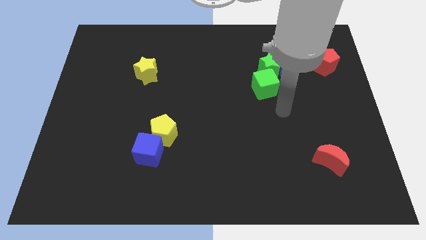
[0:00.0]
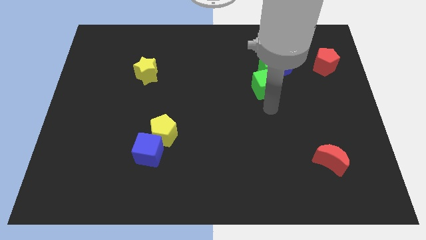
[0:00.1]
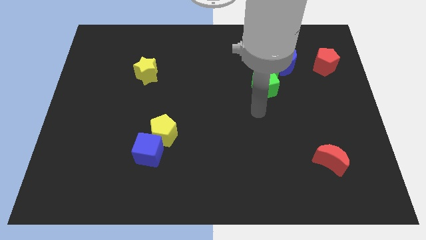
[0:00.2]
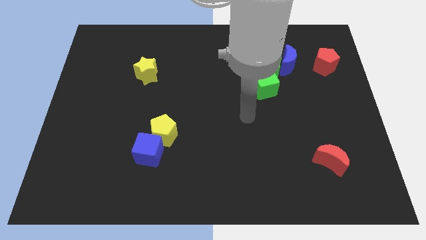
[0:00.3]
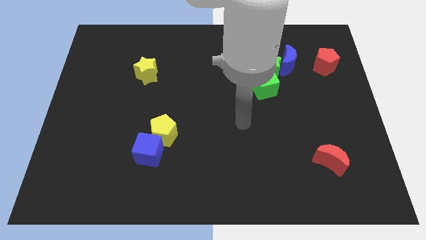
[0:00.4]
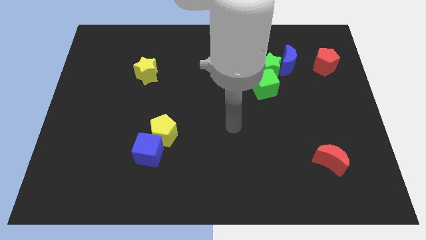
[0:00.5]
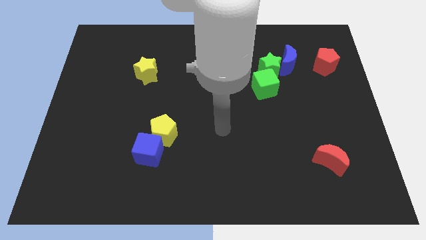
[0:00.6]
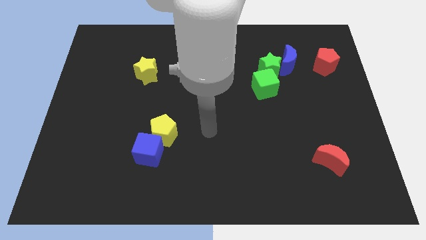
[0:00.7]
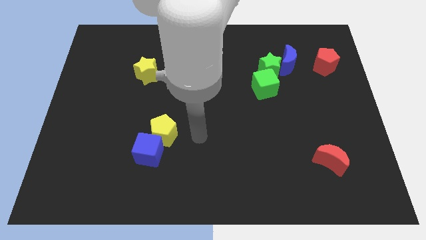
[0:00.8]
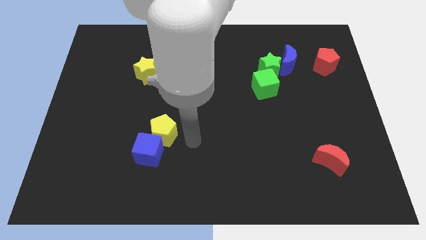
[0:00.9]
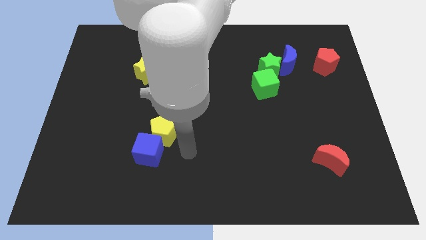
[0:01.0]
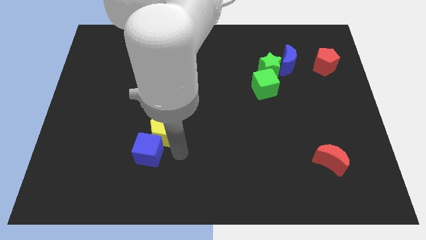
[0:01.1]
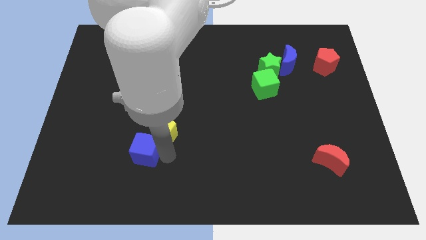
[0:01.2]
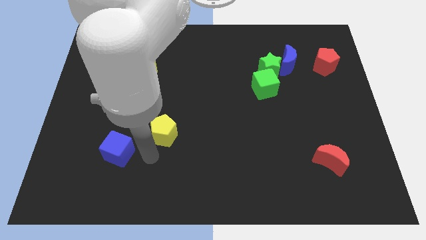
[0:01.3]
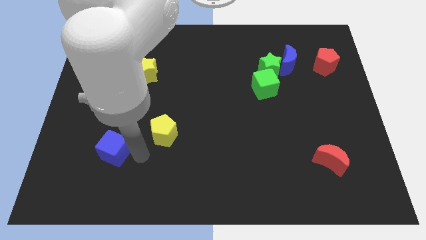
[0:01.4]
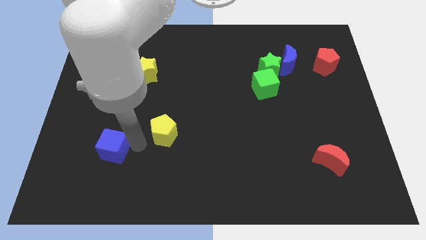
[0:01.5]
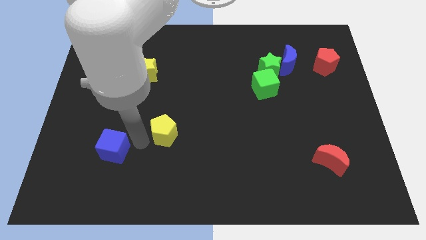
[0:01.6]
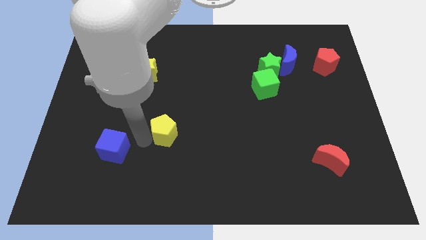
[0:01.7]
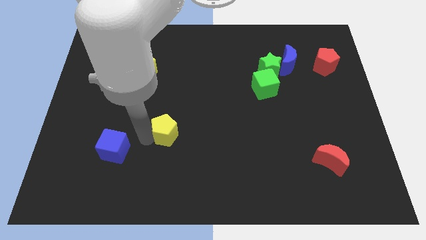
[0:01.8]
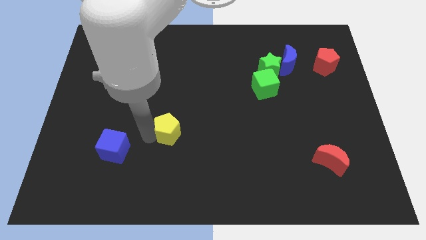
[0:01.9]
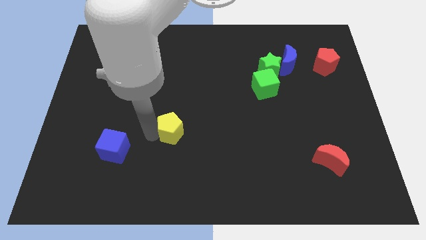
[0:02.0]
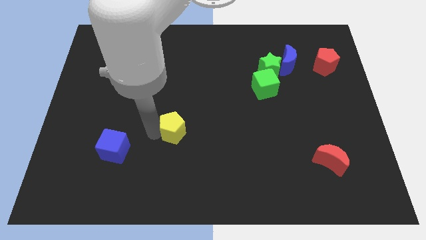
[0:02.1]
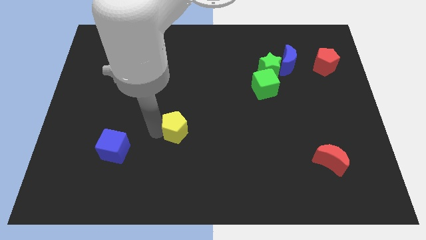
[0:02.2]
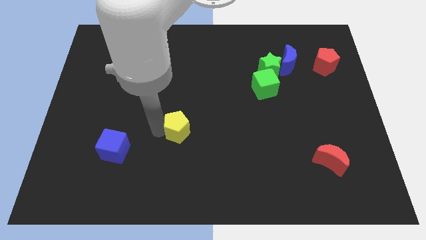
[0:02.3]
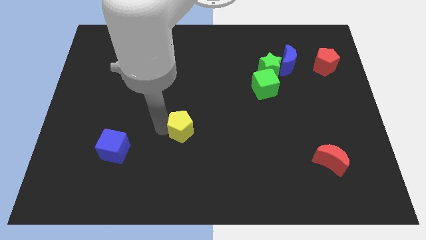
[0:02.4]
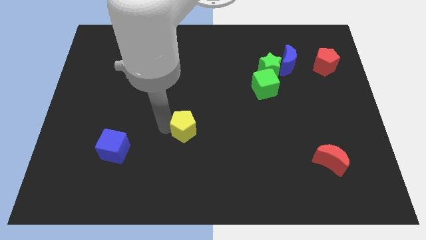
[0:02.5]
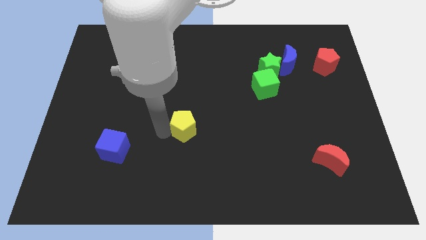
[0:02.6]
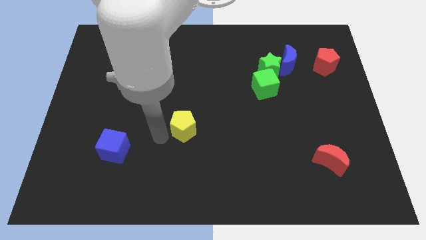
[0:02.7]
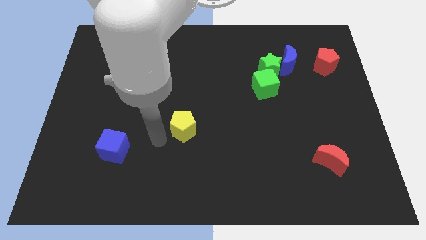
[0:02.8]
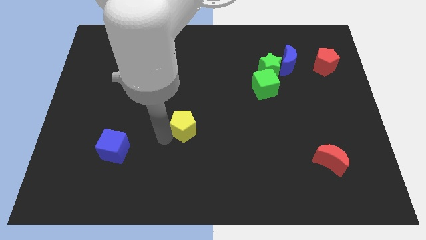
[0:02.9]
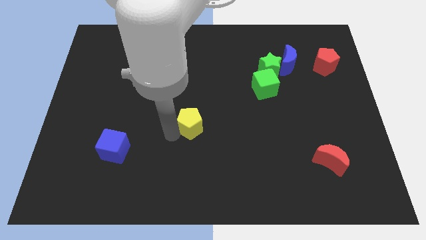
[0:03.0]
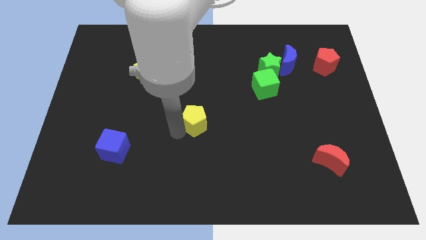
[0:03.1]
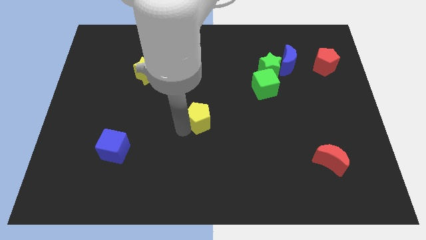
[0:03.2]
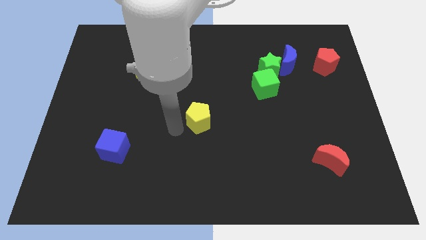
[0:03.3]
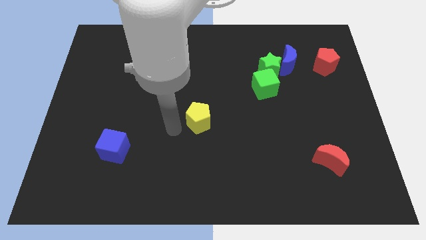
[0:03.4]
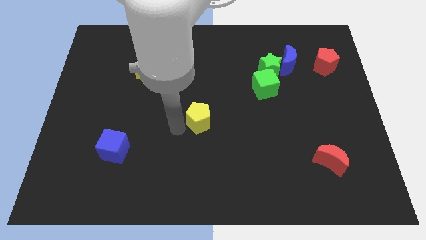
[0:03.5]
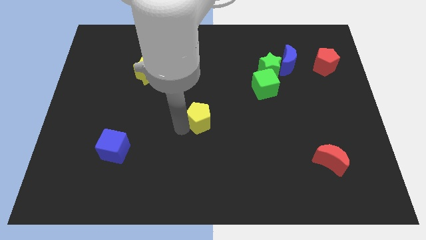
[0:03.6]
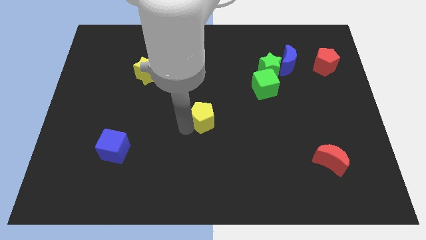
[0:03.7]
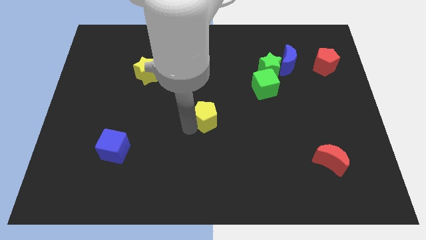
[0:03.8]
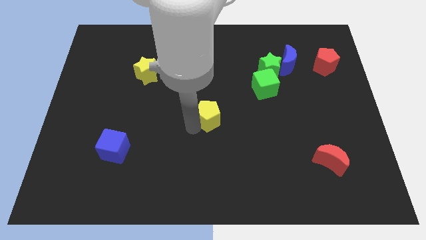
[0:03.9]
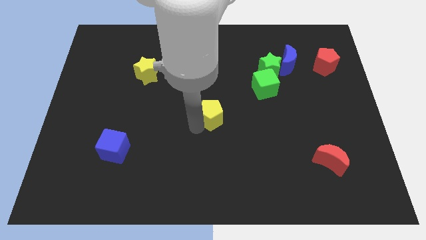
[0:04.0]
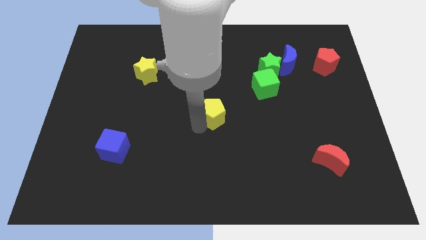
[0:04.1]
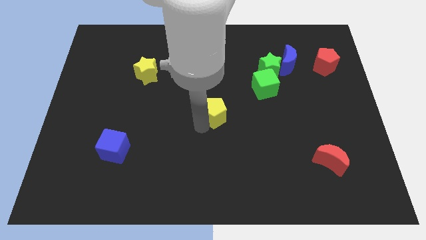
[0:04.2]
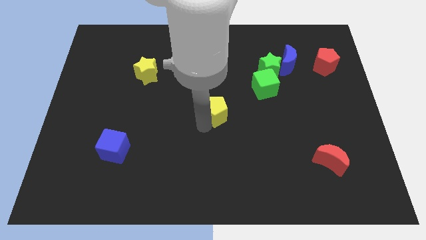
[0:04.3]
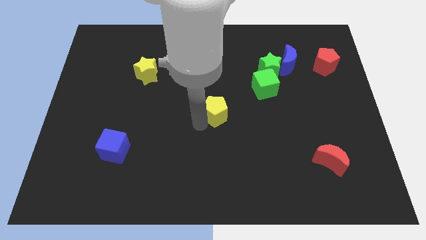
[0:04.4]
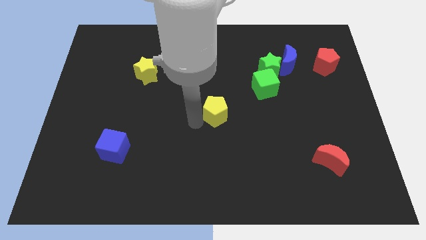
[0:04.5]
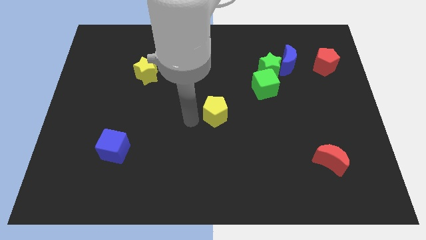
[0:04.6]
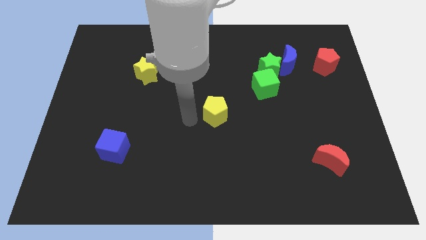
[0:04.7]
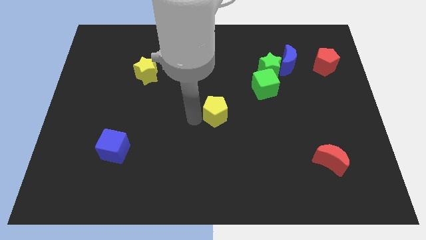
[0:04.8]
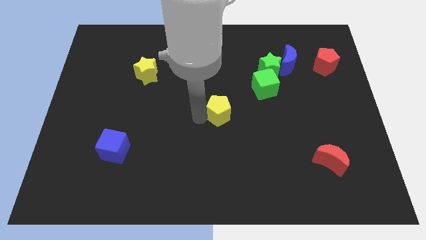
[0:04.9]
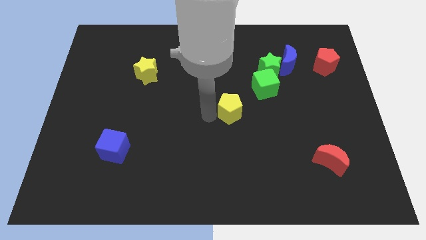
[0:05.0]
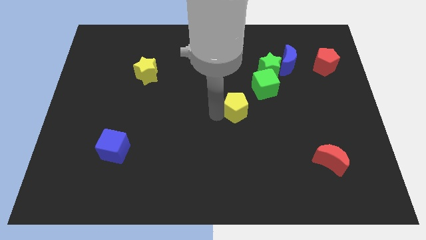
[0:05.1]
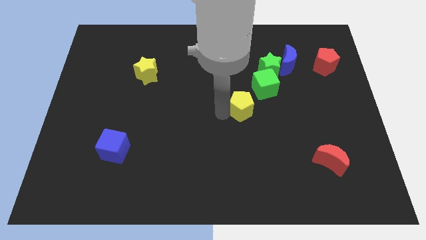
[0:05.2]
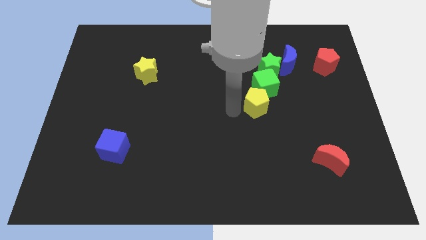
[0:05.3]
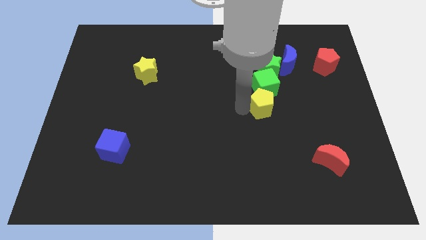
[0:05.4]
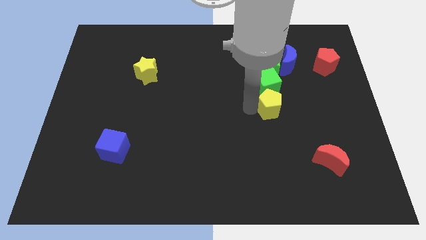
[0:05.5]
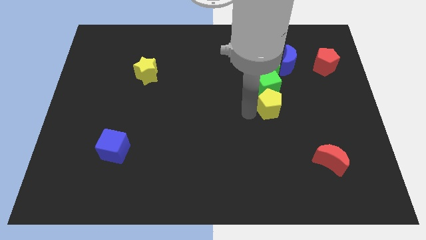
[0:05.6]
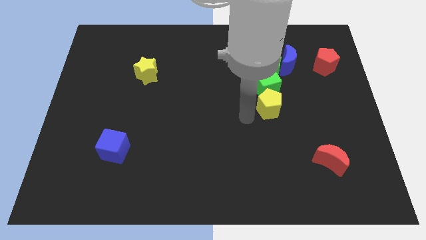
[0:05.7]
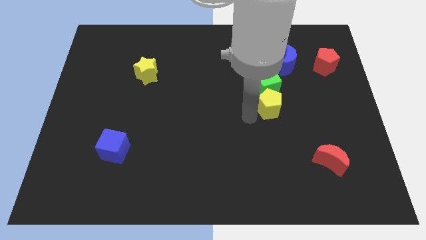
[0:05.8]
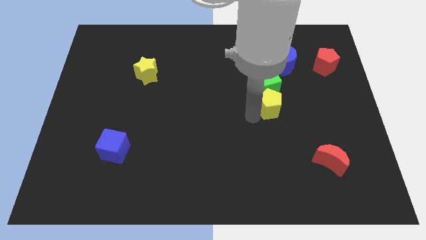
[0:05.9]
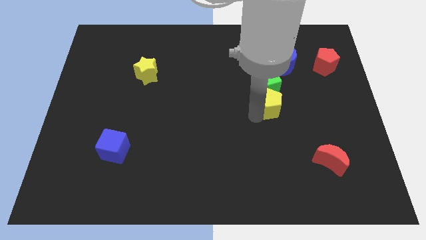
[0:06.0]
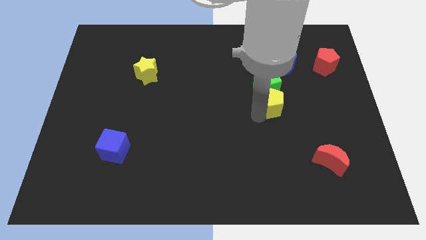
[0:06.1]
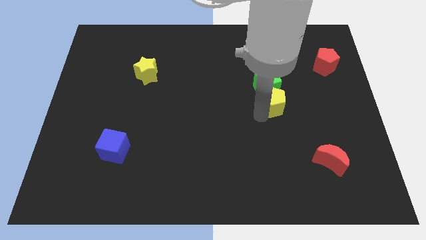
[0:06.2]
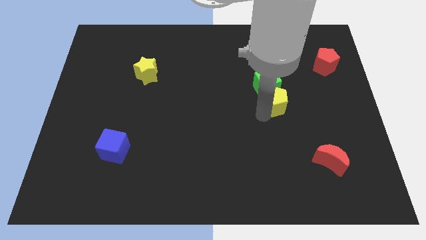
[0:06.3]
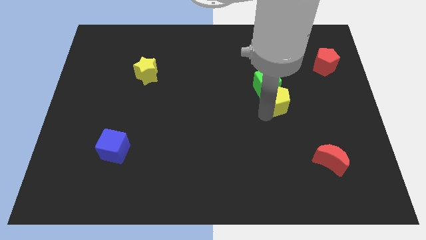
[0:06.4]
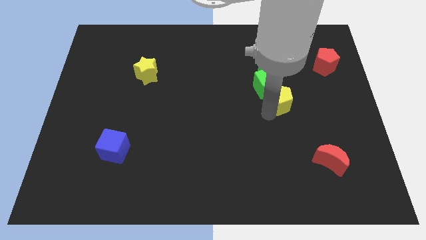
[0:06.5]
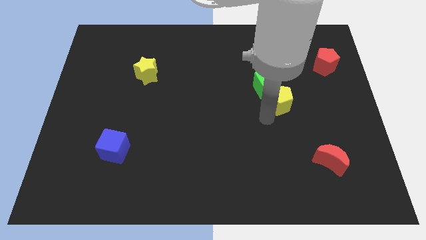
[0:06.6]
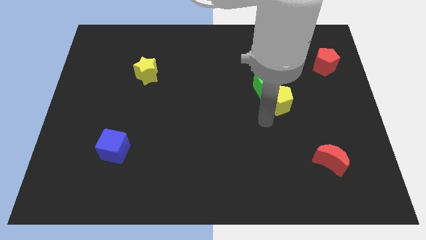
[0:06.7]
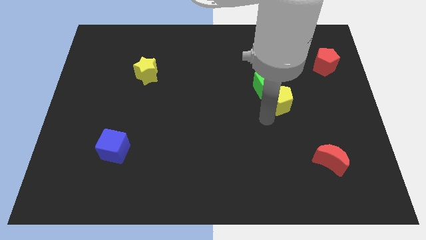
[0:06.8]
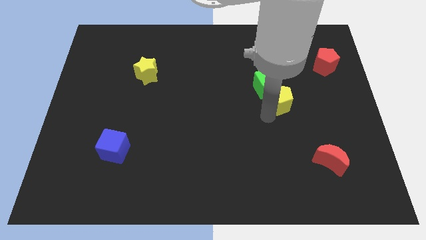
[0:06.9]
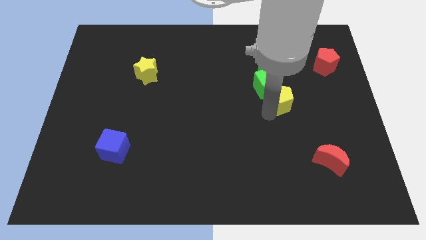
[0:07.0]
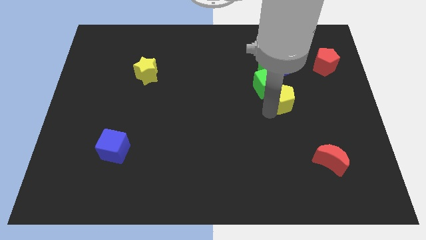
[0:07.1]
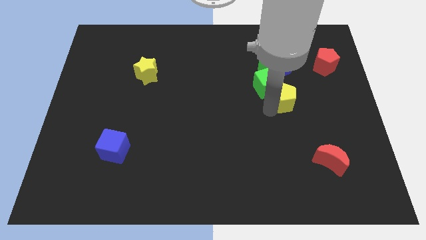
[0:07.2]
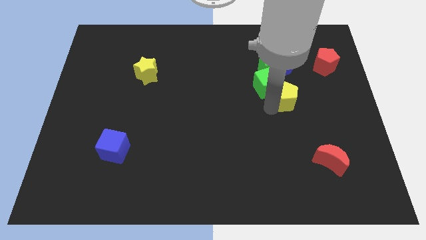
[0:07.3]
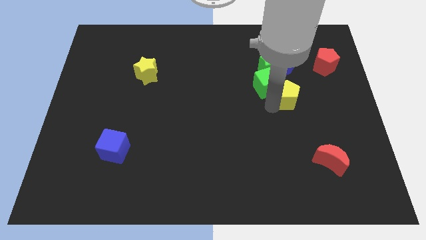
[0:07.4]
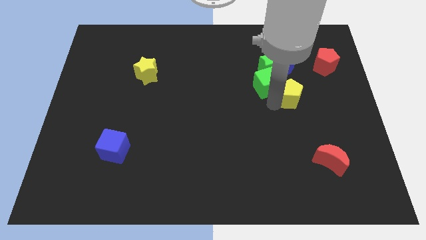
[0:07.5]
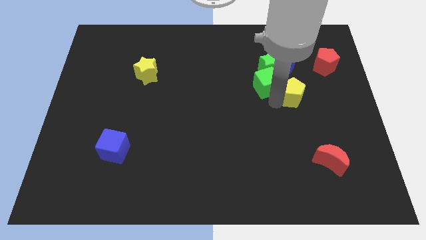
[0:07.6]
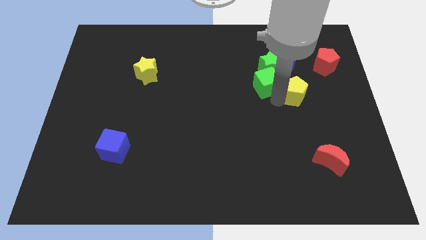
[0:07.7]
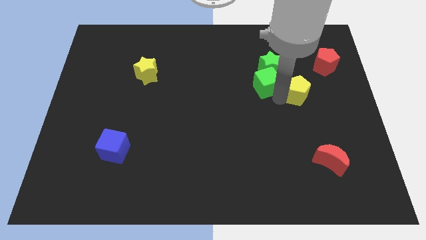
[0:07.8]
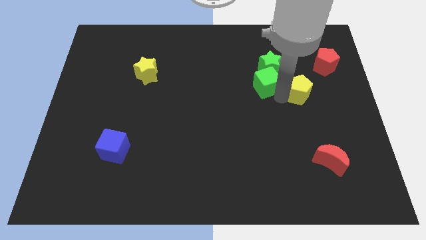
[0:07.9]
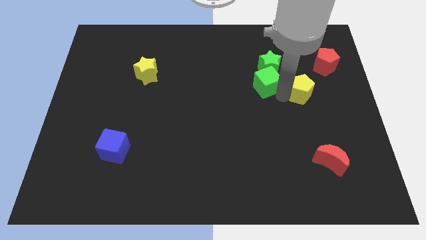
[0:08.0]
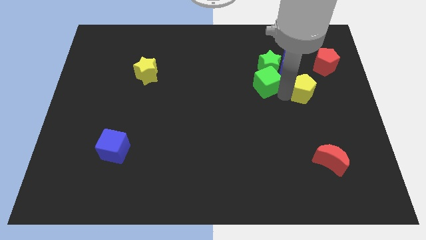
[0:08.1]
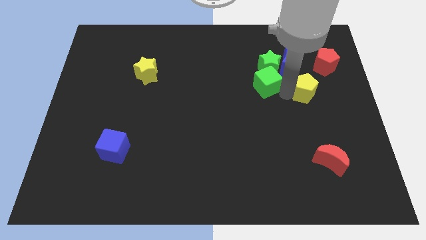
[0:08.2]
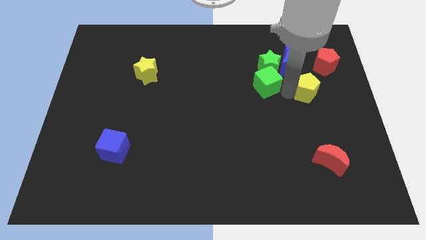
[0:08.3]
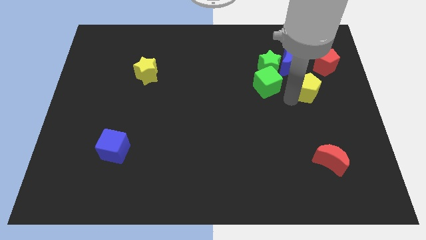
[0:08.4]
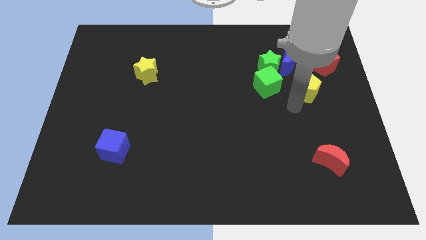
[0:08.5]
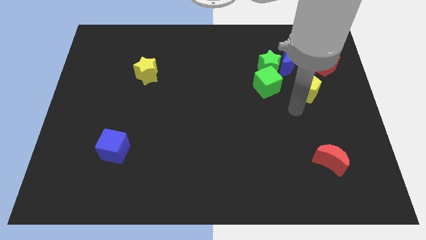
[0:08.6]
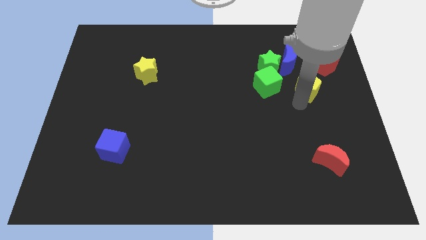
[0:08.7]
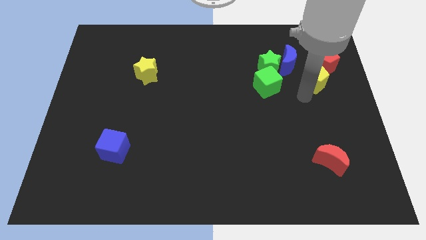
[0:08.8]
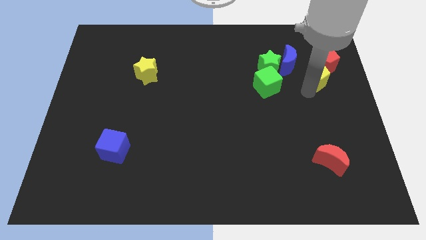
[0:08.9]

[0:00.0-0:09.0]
slide the yellow pentagon next to the red pentagon
